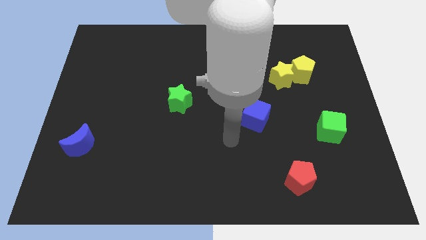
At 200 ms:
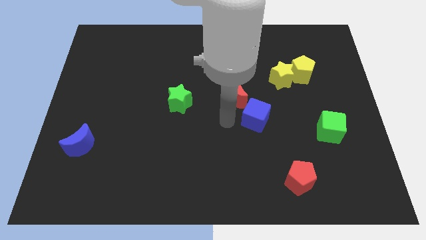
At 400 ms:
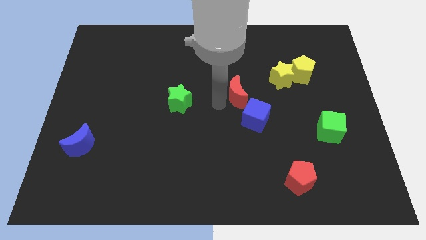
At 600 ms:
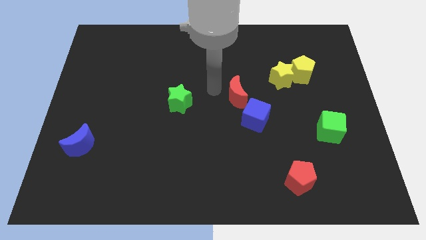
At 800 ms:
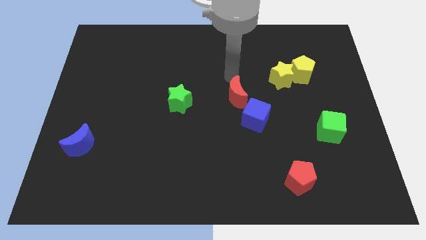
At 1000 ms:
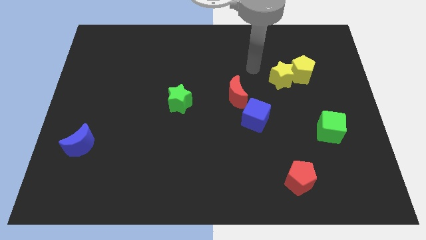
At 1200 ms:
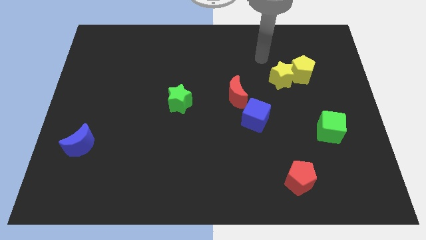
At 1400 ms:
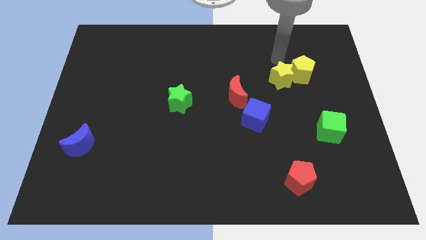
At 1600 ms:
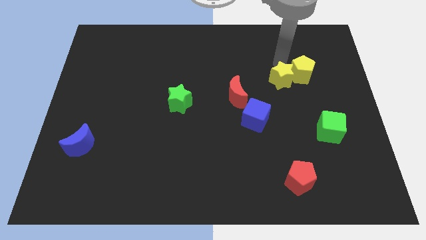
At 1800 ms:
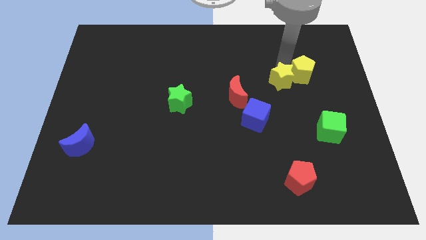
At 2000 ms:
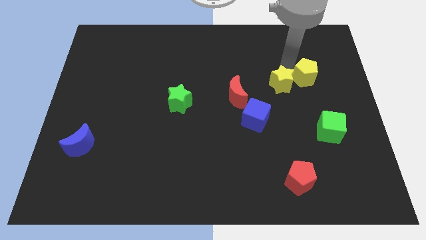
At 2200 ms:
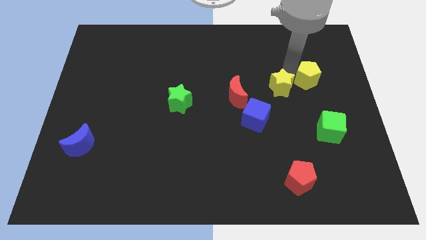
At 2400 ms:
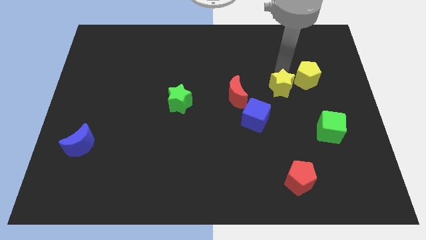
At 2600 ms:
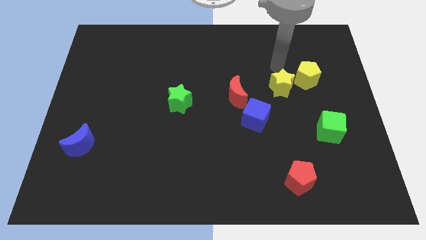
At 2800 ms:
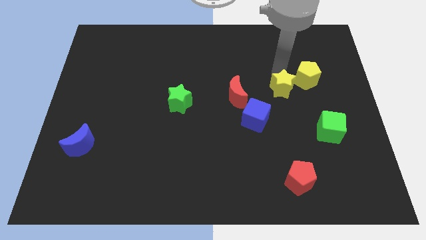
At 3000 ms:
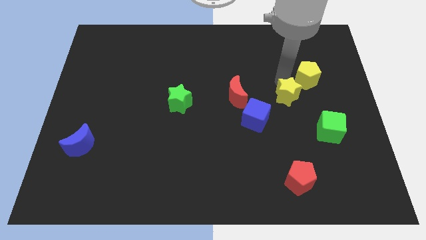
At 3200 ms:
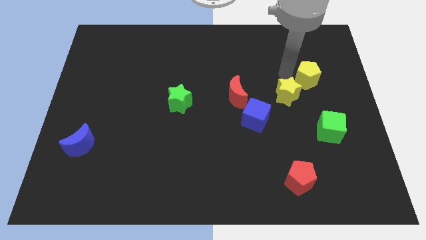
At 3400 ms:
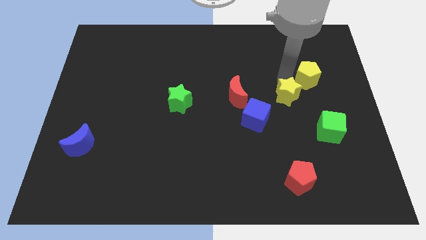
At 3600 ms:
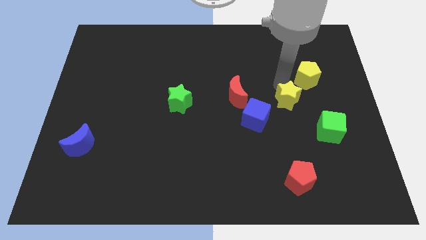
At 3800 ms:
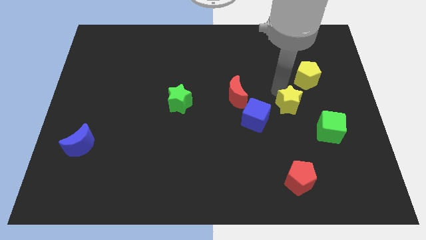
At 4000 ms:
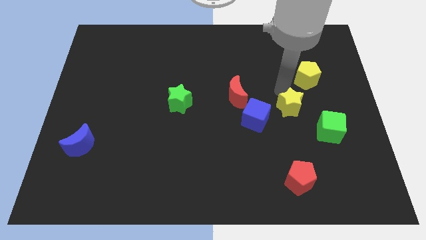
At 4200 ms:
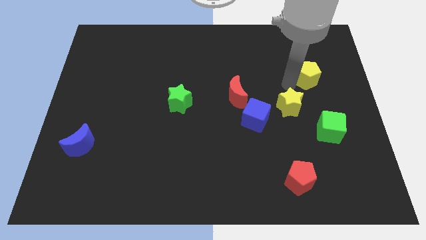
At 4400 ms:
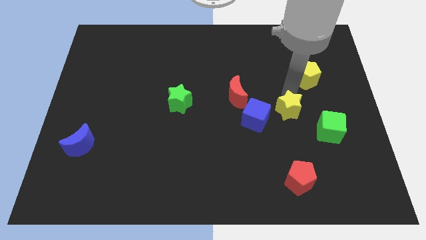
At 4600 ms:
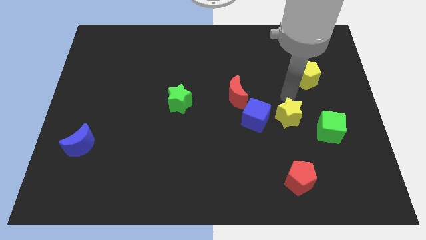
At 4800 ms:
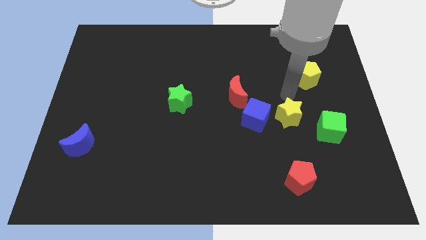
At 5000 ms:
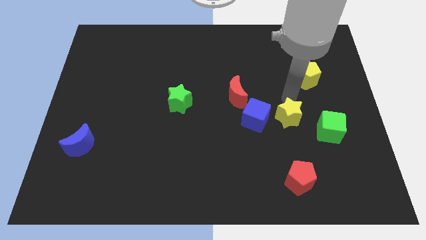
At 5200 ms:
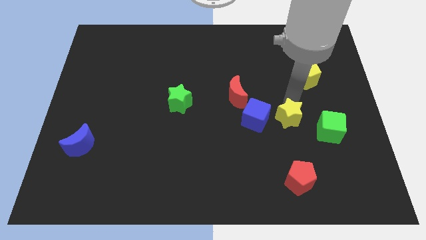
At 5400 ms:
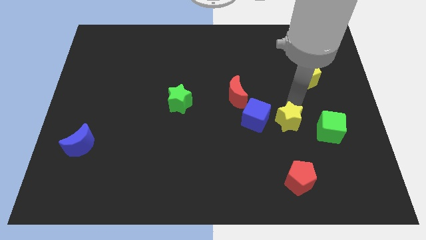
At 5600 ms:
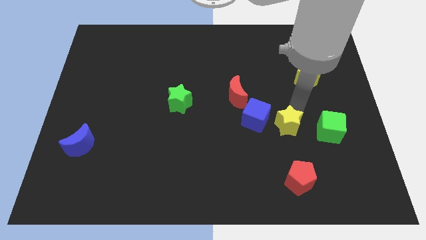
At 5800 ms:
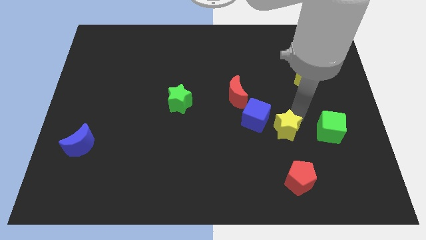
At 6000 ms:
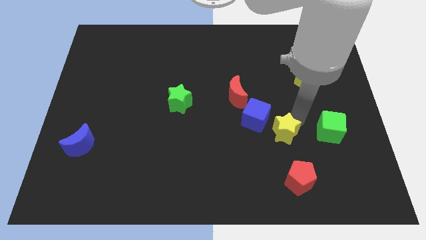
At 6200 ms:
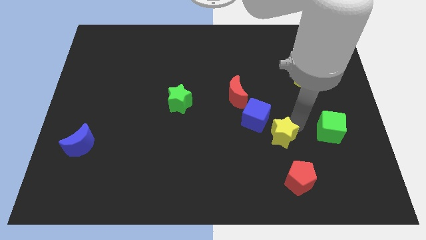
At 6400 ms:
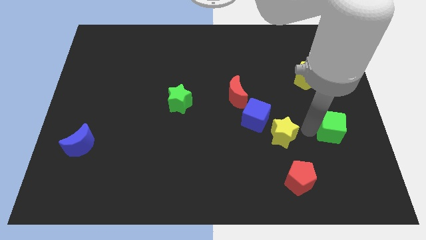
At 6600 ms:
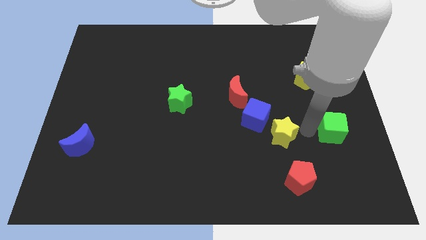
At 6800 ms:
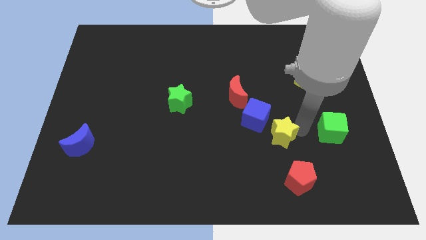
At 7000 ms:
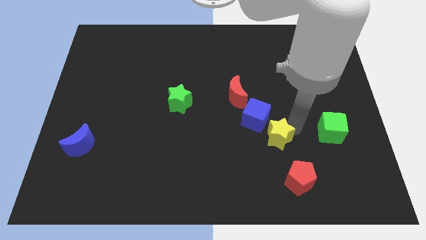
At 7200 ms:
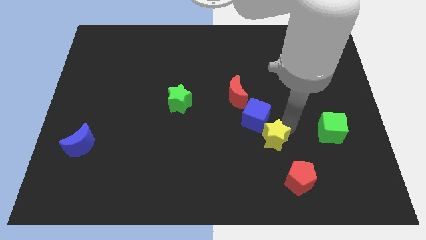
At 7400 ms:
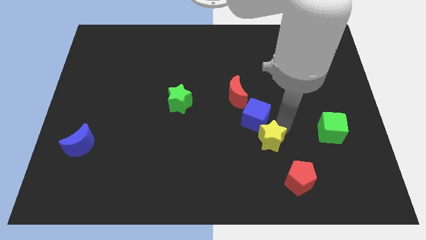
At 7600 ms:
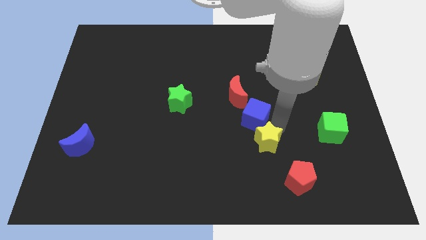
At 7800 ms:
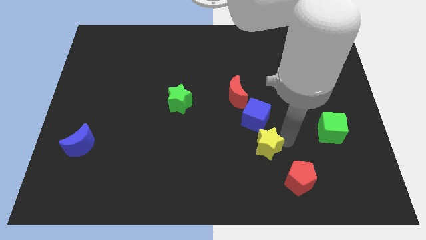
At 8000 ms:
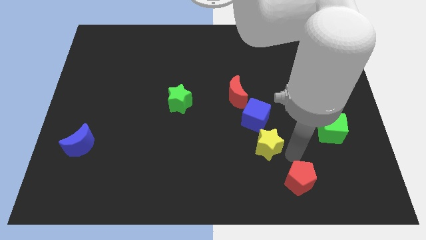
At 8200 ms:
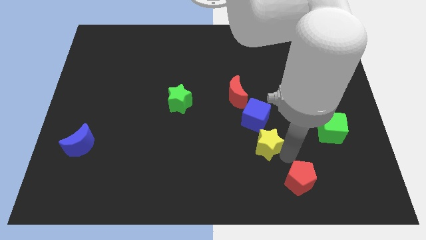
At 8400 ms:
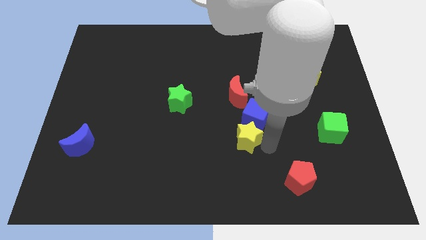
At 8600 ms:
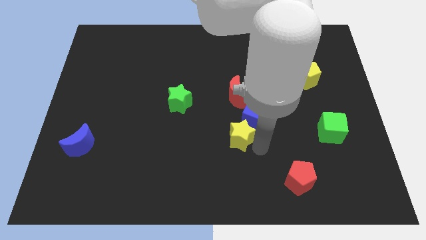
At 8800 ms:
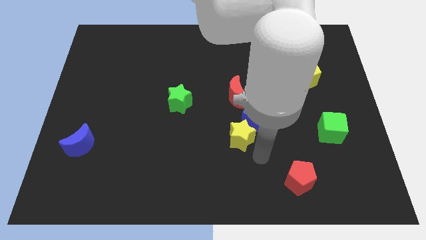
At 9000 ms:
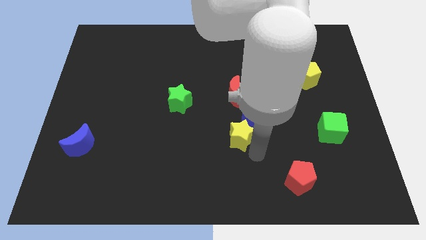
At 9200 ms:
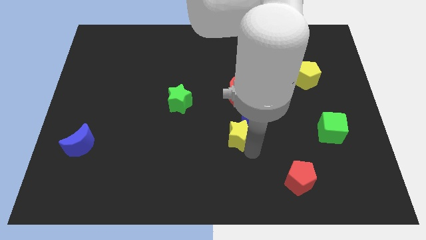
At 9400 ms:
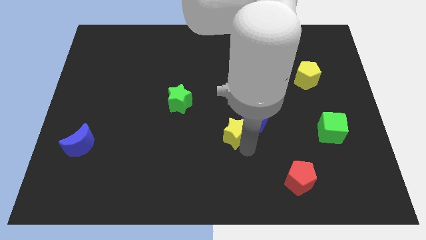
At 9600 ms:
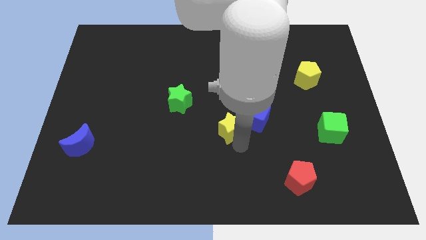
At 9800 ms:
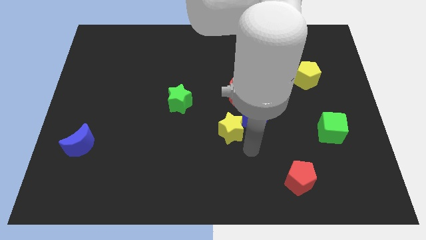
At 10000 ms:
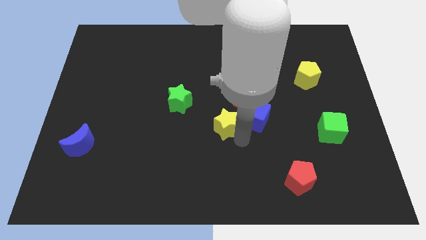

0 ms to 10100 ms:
push the yellow star to the bottom left of the red moon

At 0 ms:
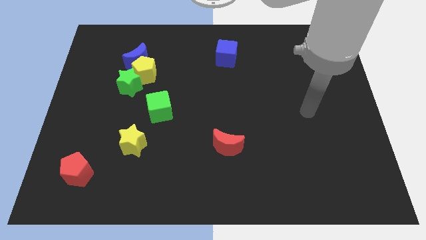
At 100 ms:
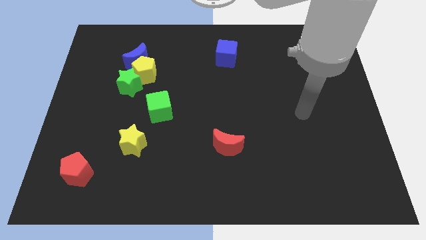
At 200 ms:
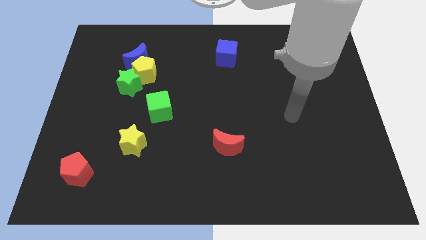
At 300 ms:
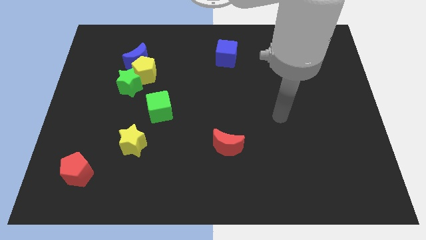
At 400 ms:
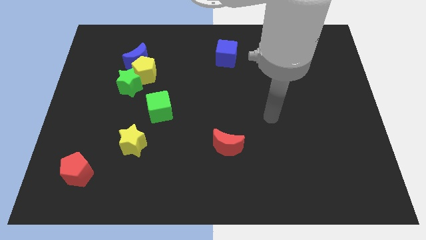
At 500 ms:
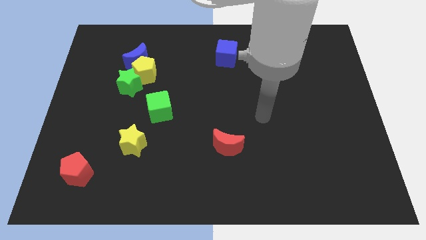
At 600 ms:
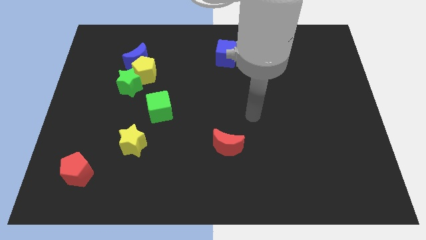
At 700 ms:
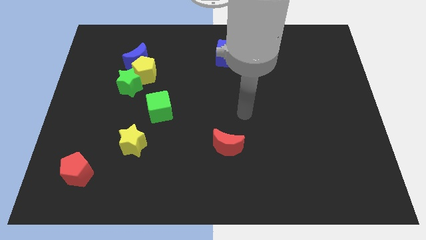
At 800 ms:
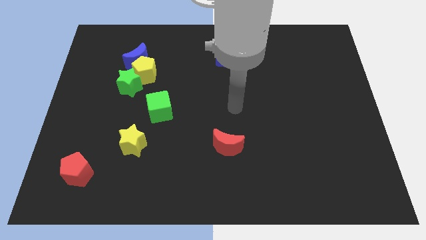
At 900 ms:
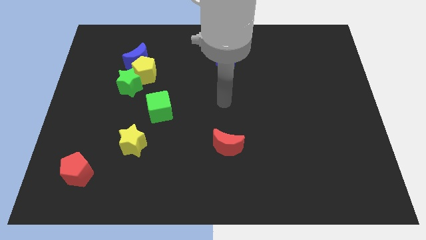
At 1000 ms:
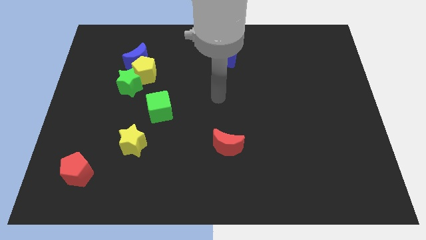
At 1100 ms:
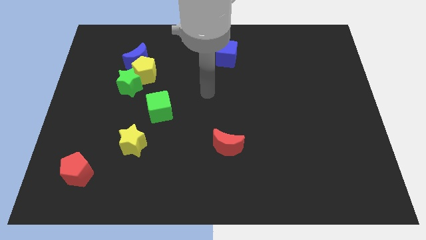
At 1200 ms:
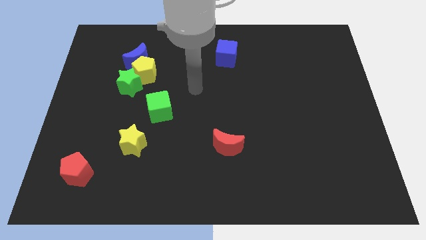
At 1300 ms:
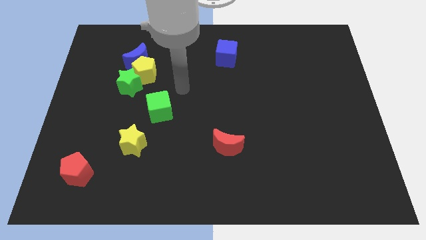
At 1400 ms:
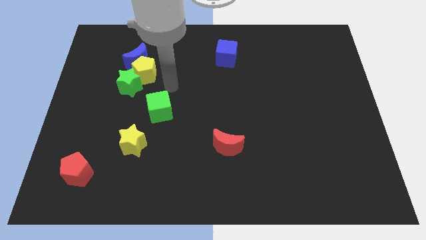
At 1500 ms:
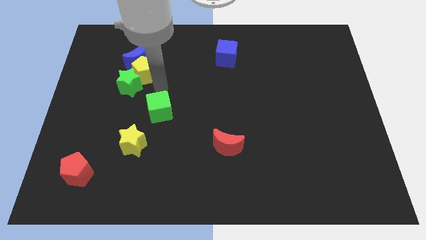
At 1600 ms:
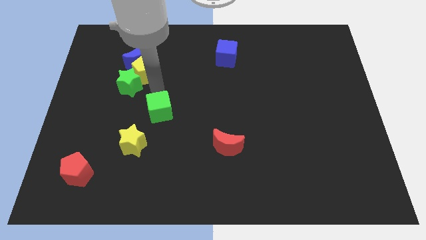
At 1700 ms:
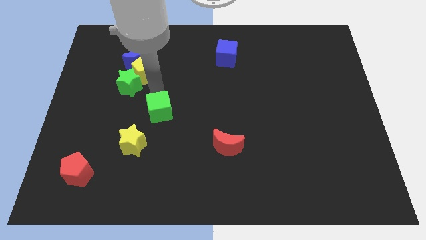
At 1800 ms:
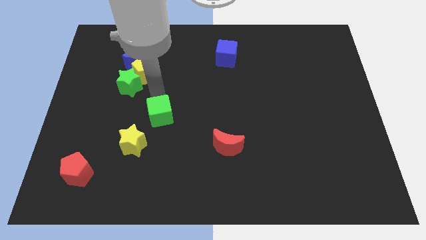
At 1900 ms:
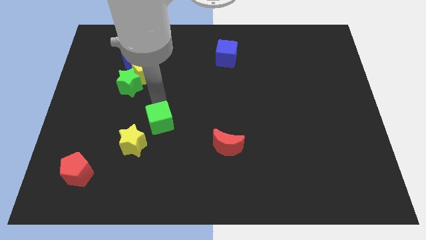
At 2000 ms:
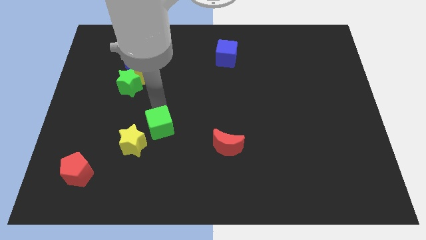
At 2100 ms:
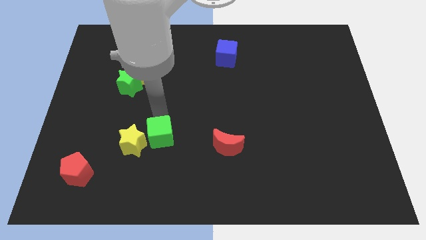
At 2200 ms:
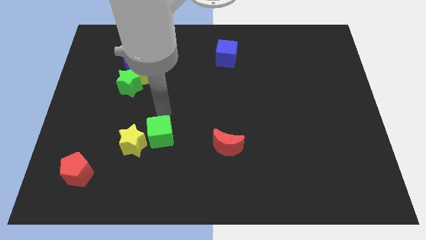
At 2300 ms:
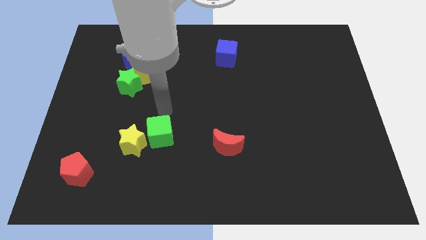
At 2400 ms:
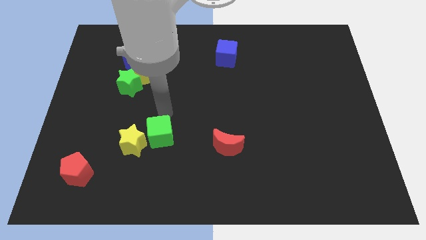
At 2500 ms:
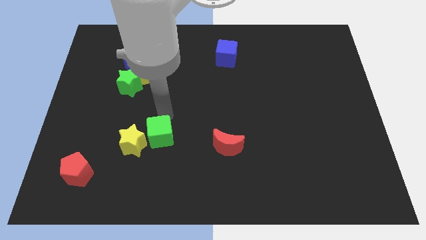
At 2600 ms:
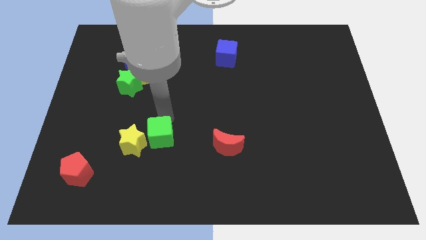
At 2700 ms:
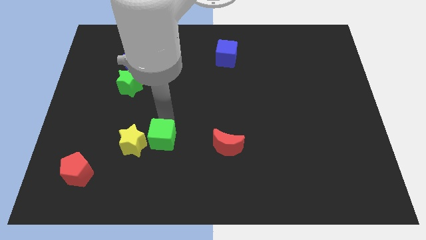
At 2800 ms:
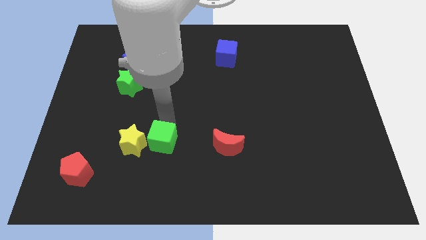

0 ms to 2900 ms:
move the green cube to the bottom right side of the yellow star
